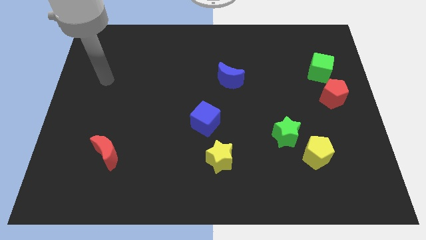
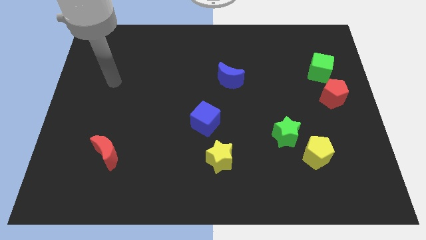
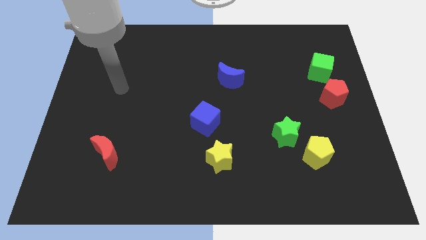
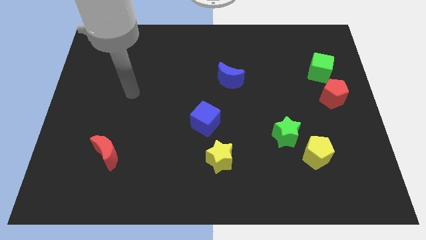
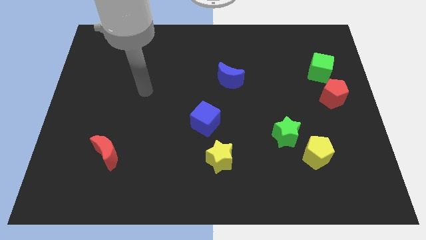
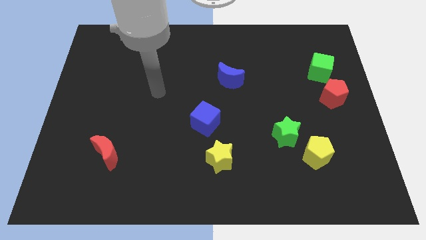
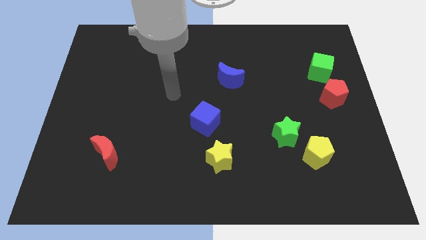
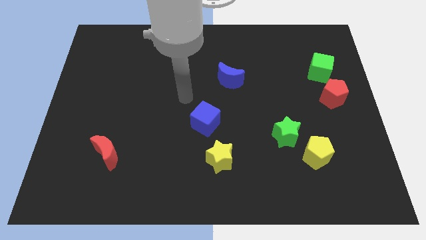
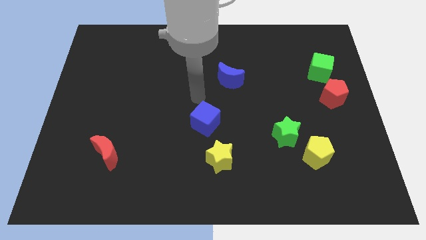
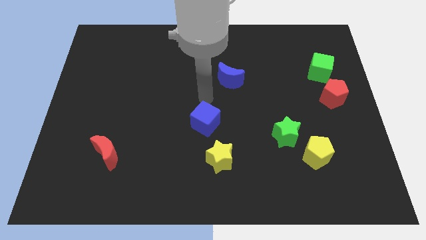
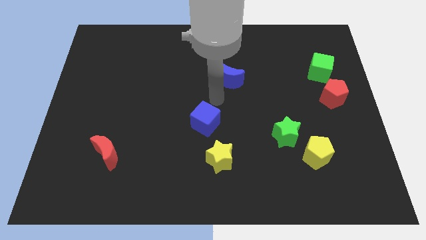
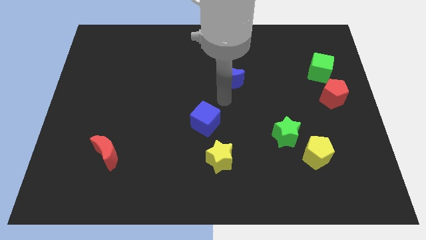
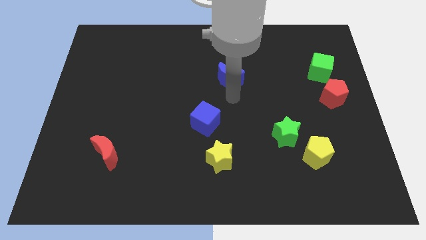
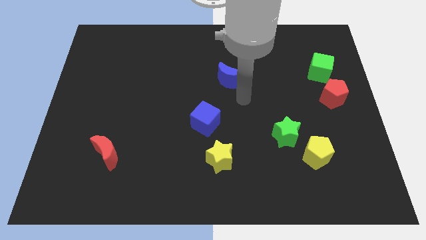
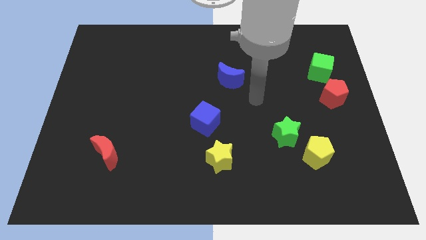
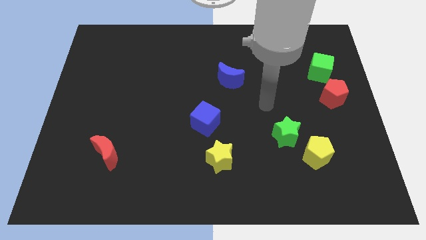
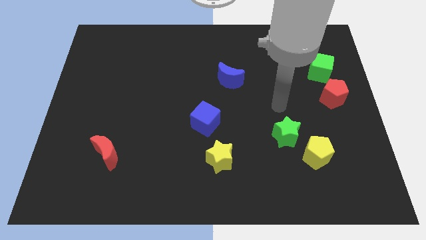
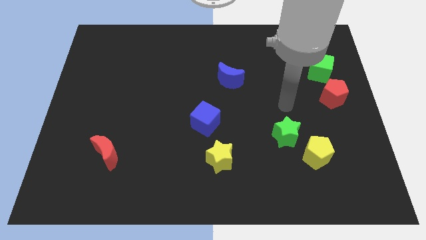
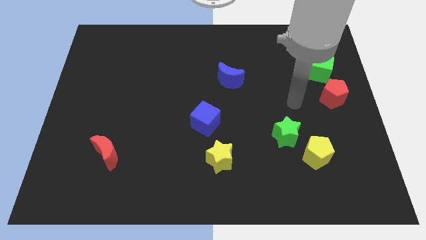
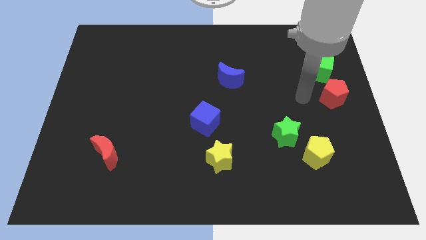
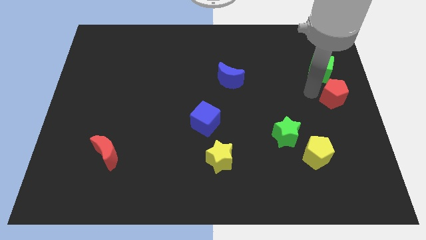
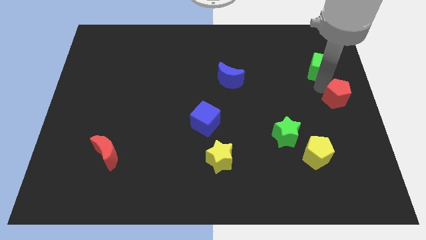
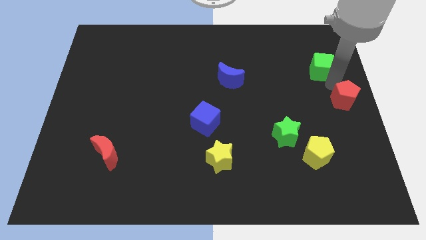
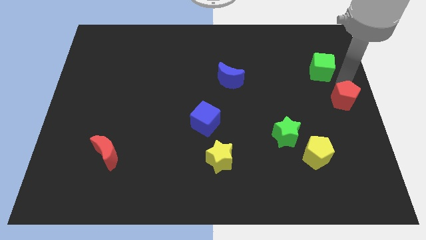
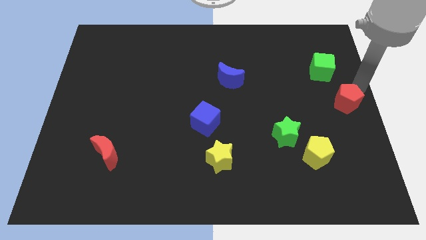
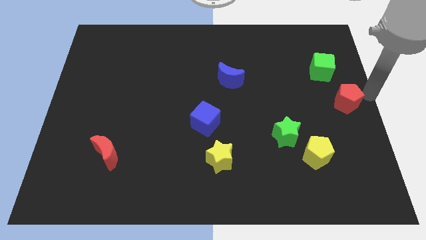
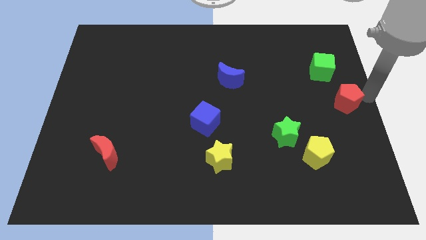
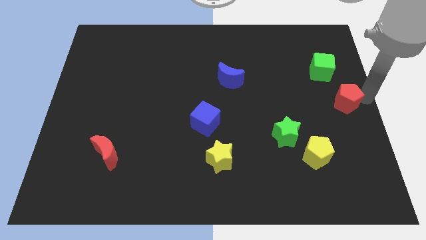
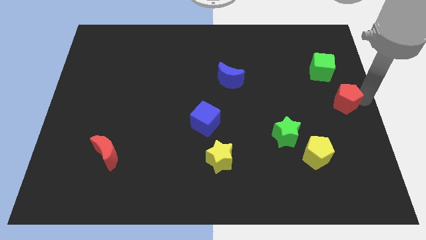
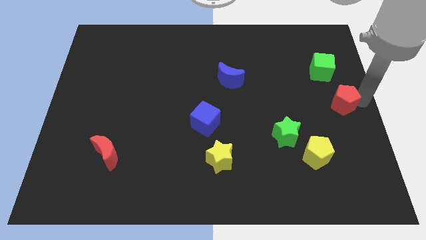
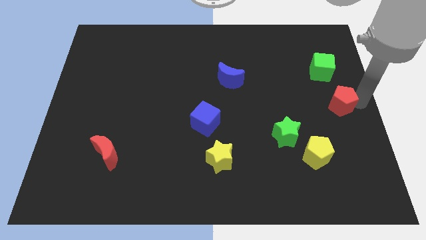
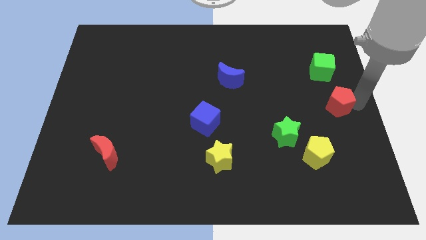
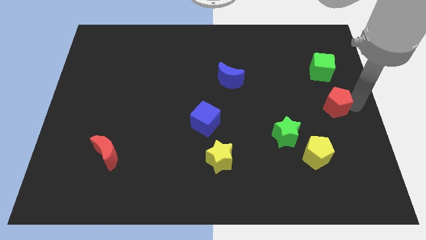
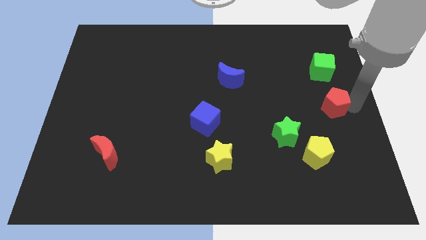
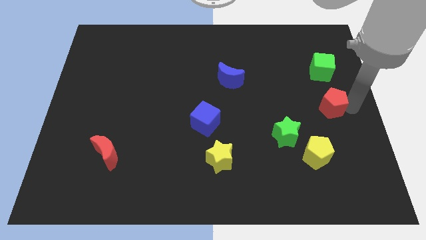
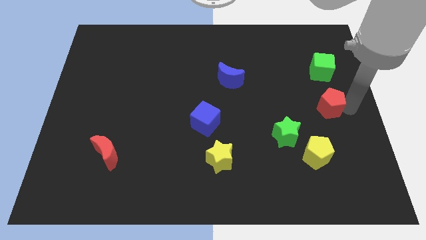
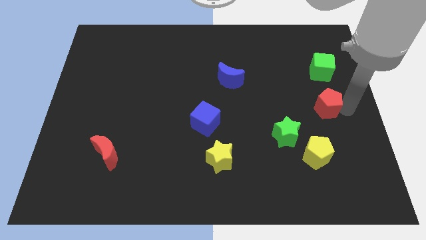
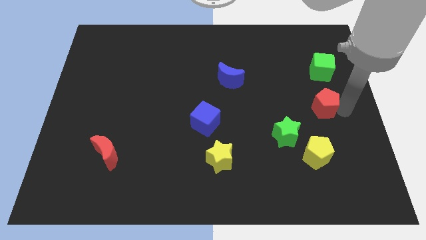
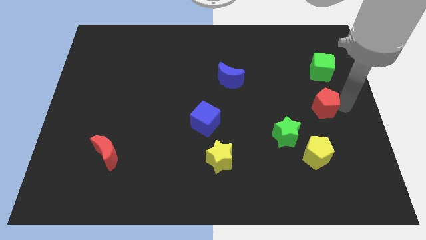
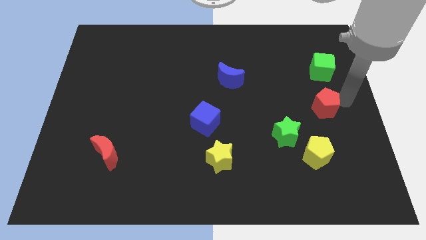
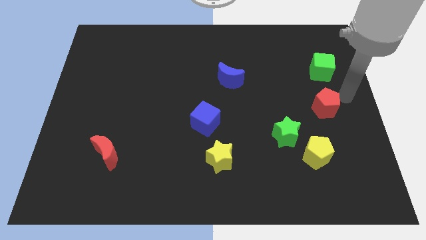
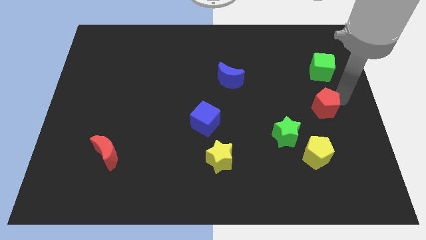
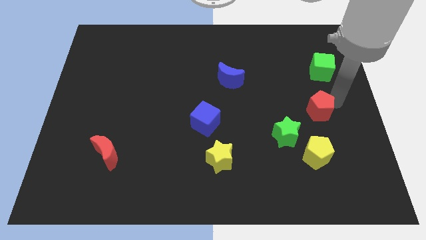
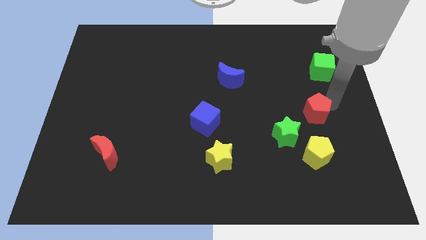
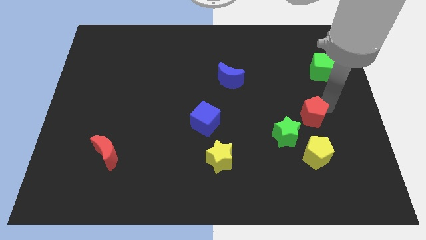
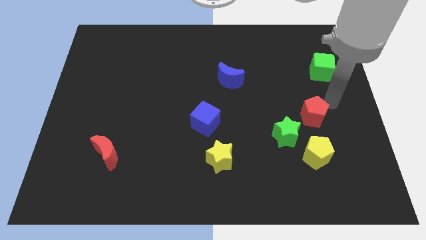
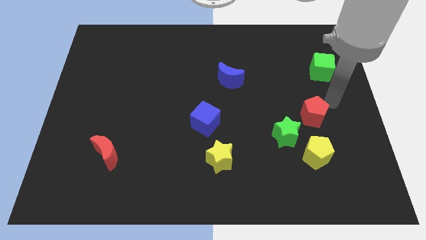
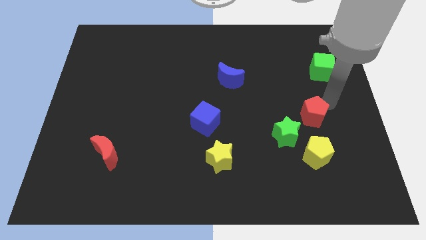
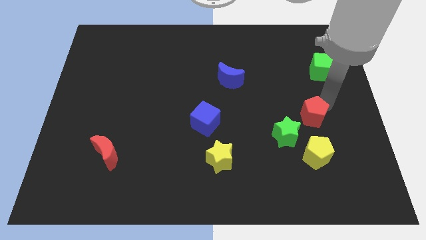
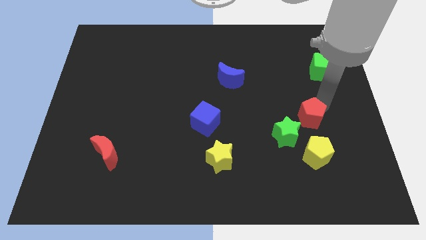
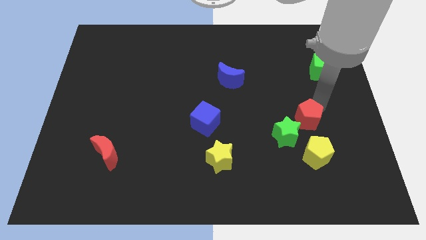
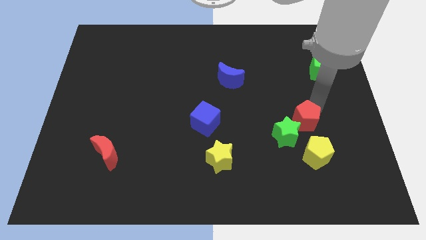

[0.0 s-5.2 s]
move the red pentagon close to the green star

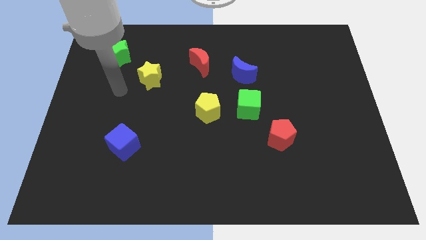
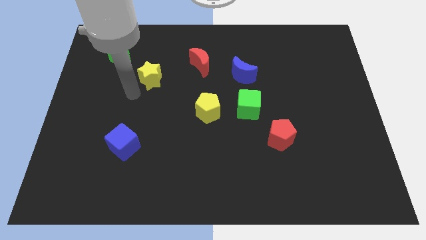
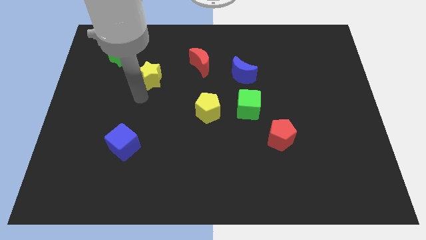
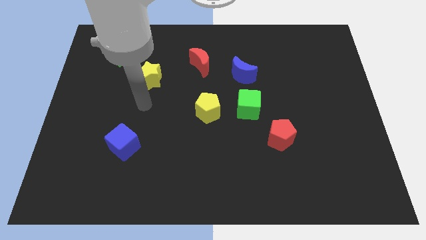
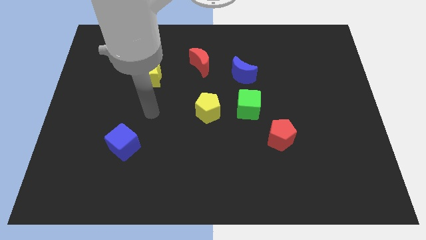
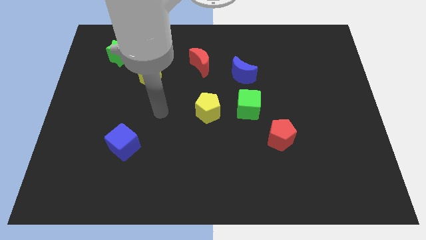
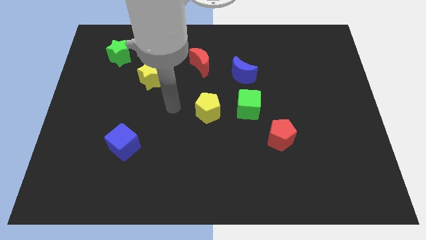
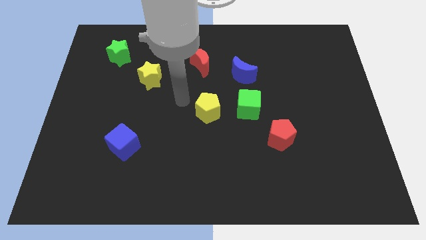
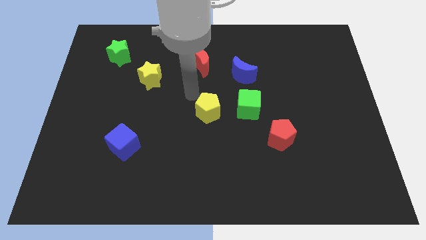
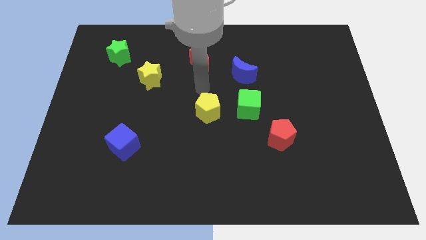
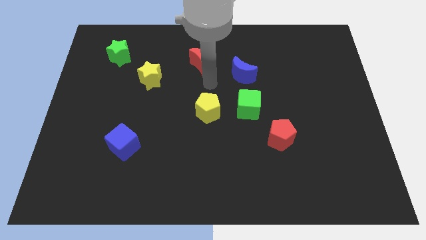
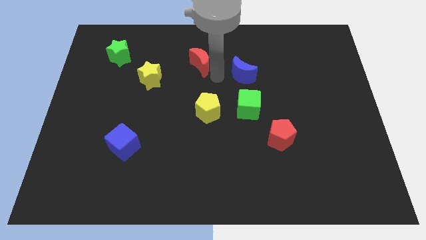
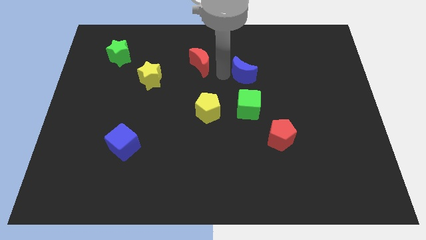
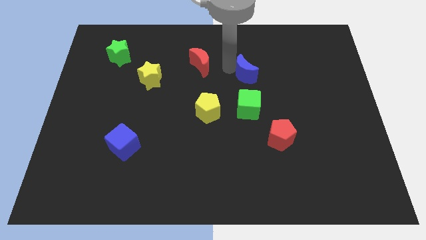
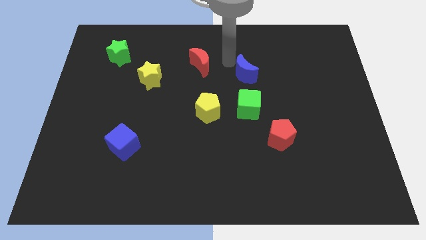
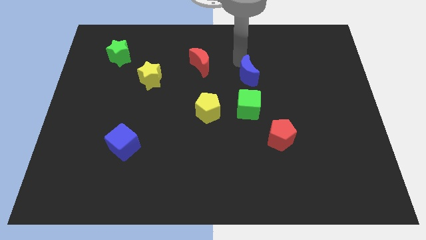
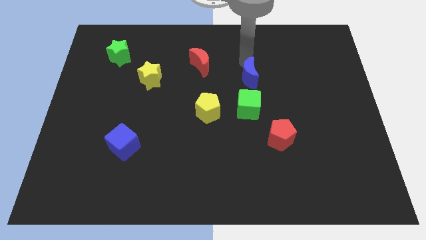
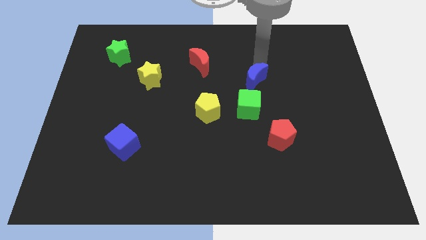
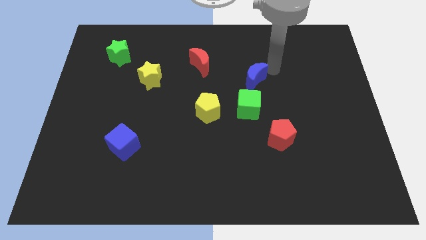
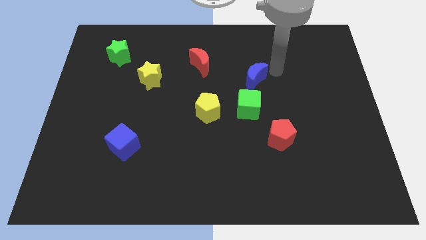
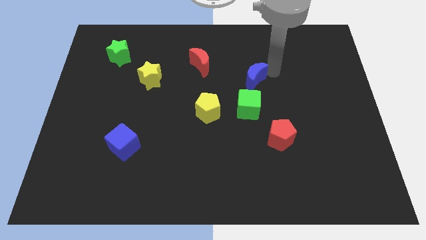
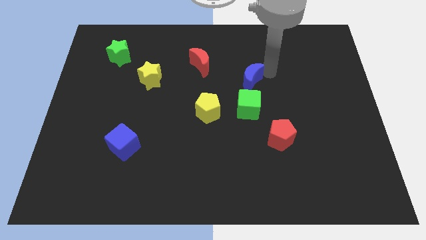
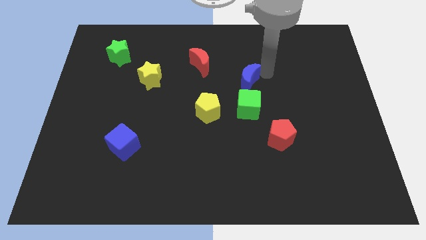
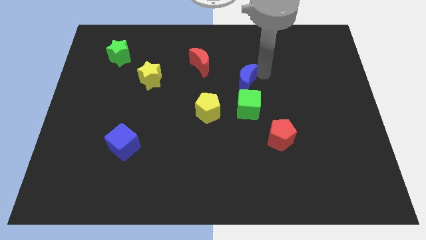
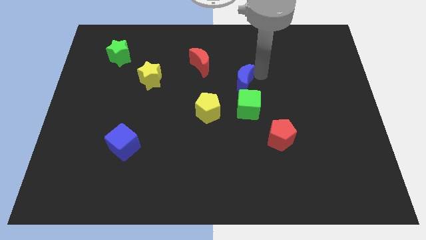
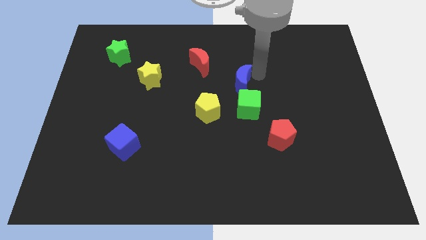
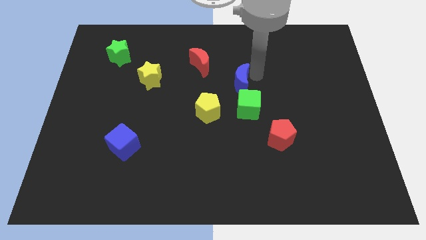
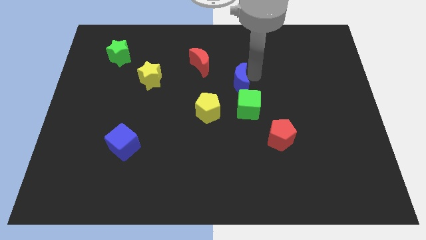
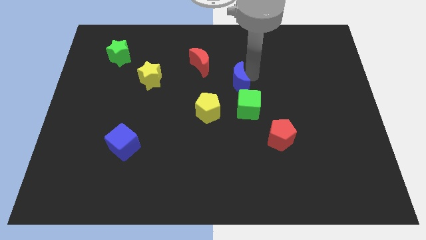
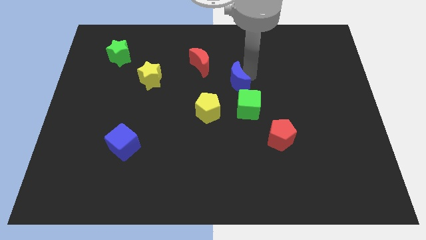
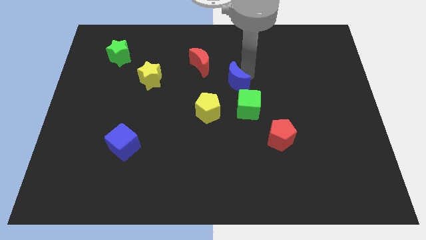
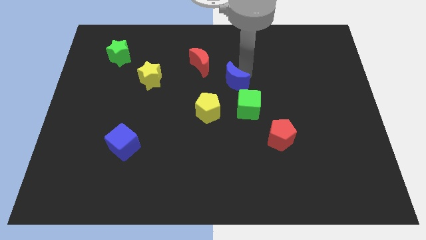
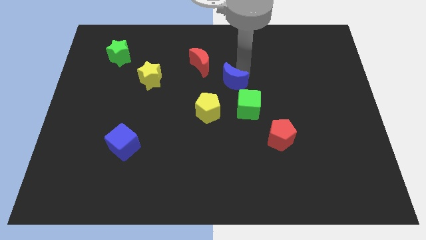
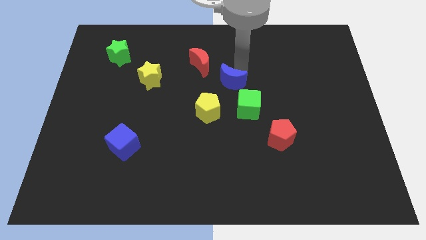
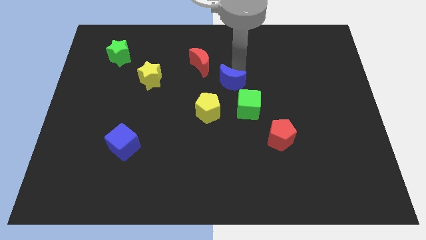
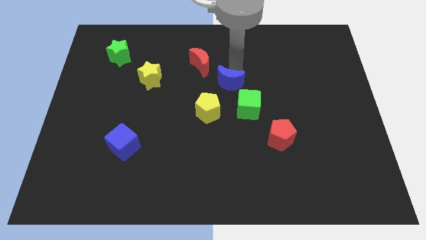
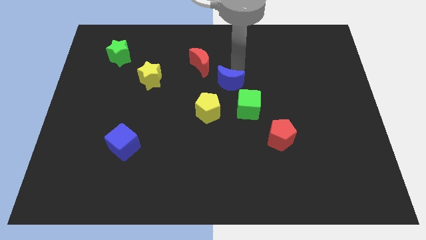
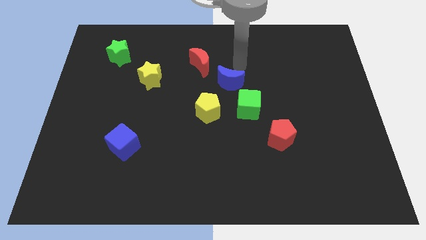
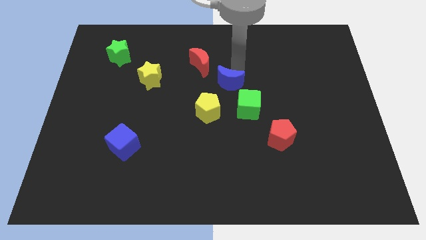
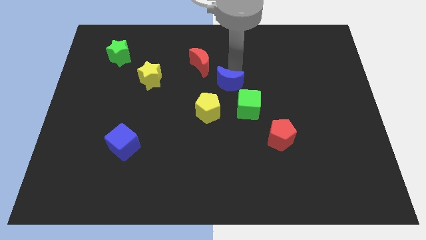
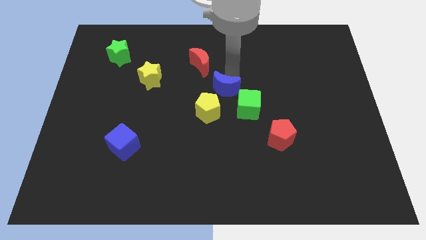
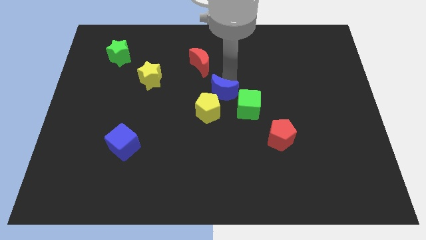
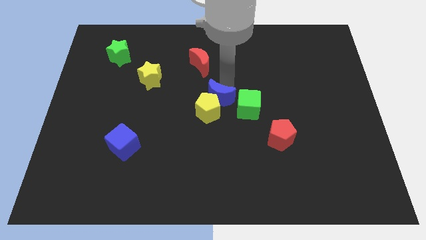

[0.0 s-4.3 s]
push the blue moon next to the yellow pentagon
